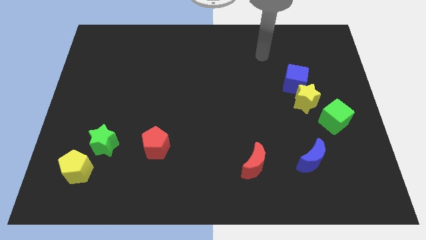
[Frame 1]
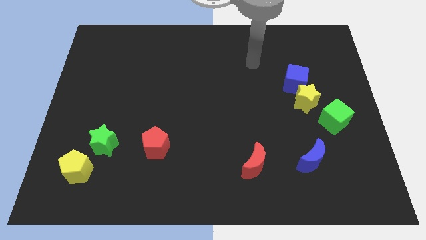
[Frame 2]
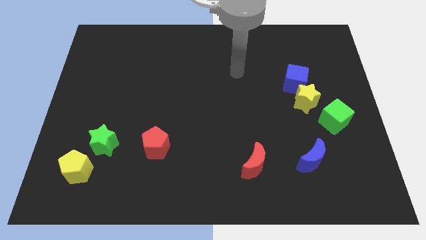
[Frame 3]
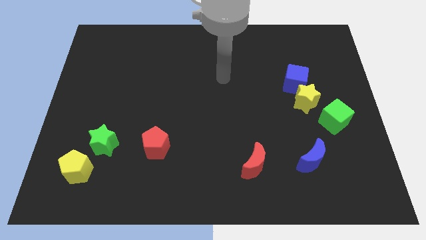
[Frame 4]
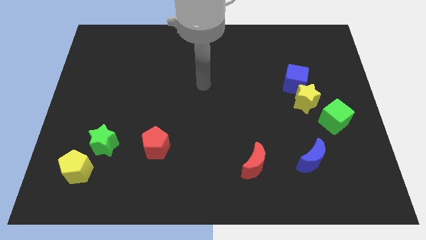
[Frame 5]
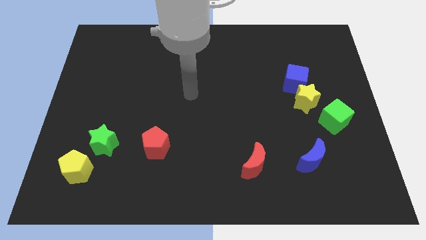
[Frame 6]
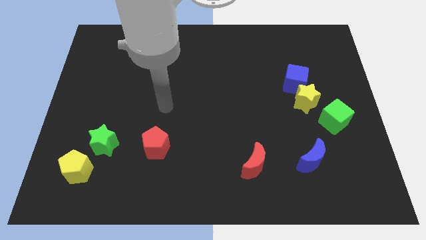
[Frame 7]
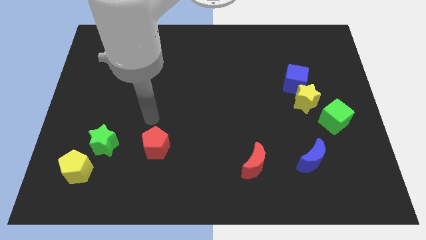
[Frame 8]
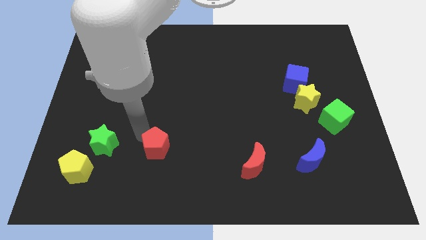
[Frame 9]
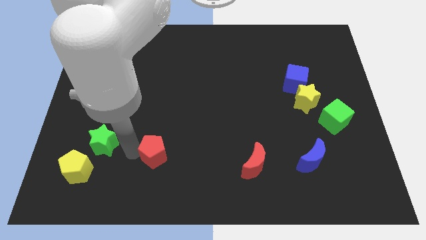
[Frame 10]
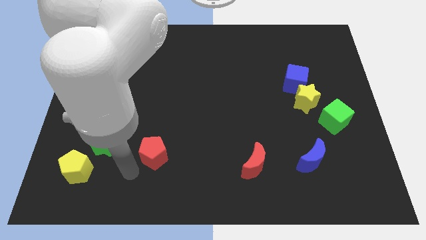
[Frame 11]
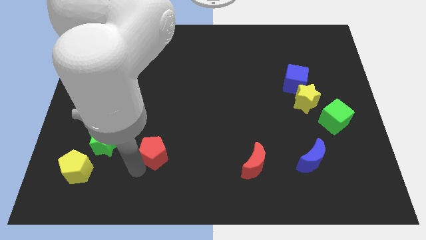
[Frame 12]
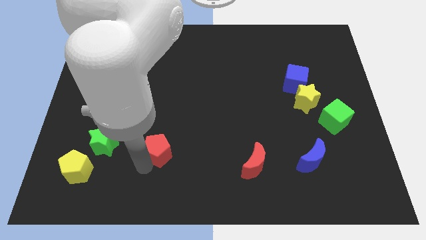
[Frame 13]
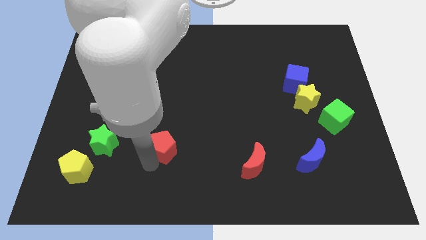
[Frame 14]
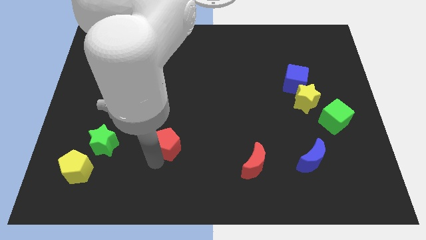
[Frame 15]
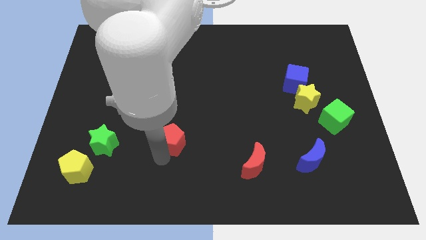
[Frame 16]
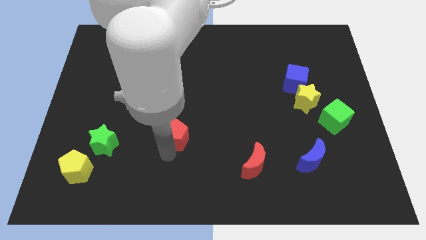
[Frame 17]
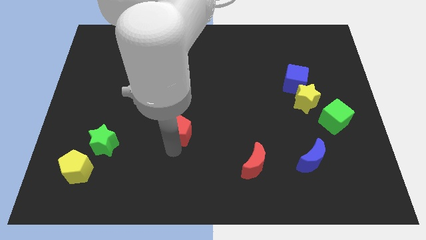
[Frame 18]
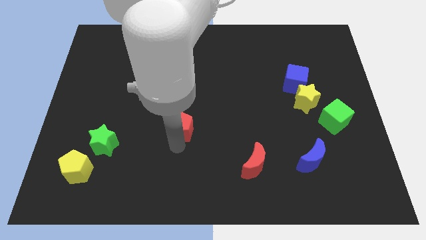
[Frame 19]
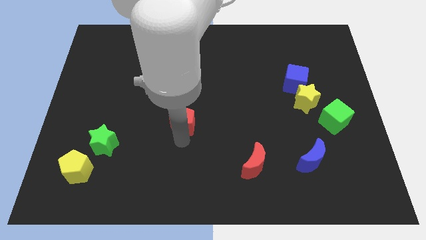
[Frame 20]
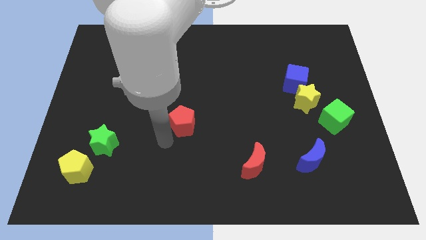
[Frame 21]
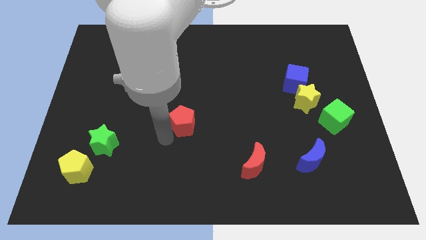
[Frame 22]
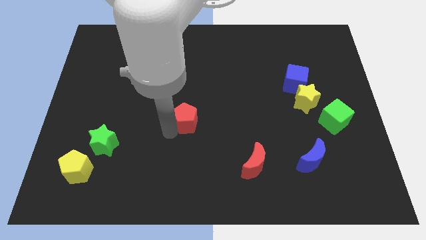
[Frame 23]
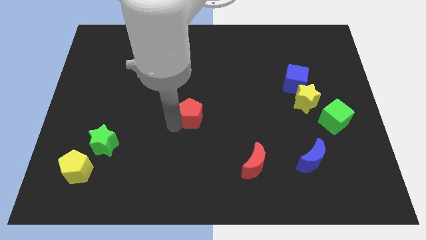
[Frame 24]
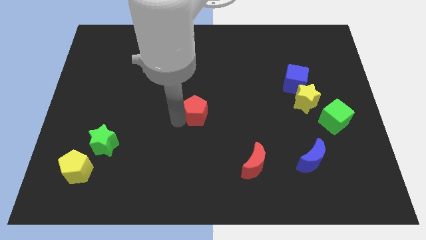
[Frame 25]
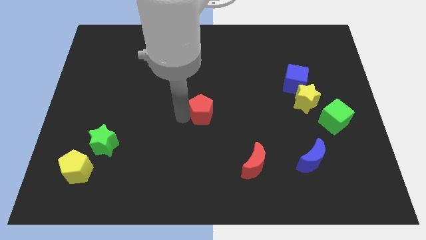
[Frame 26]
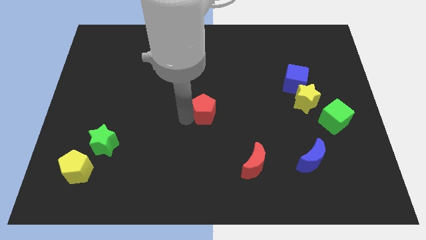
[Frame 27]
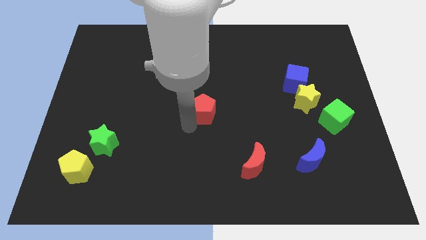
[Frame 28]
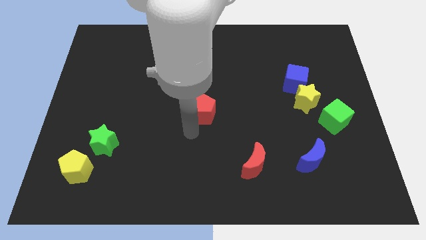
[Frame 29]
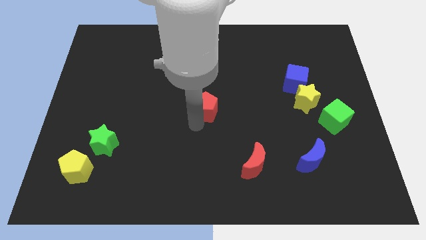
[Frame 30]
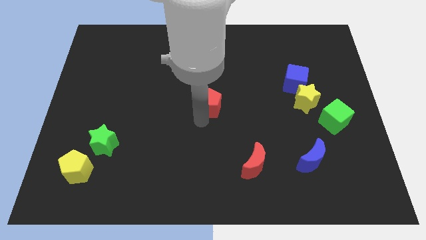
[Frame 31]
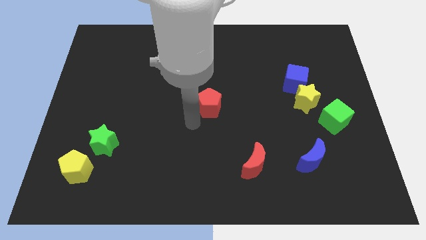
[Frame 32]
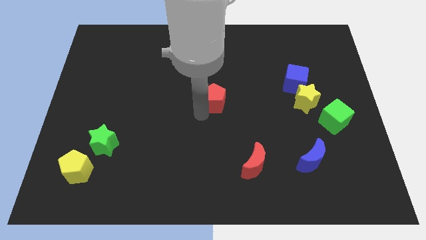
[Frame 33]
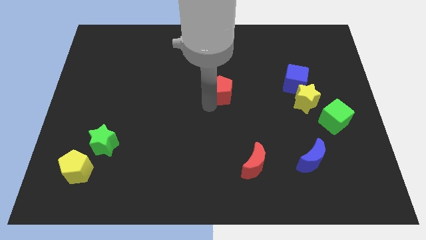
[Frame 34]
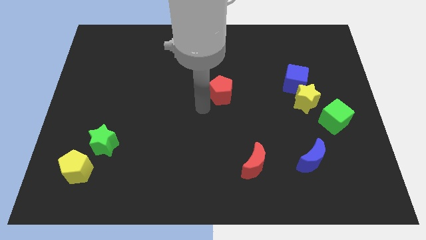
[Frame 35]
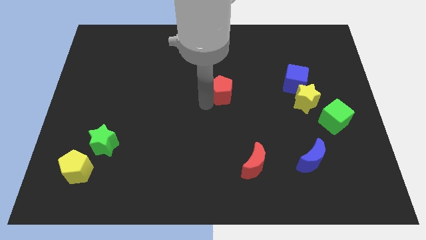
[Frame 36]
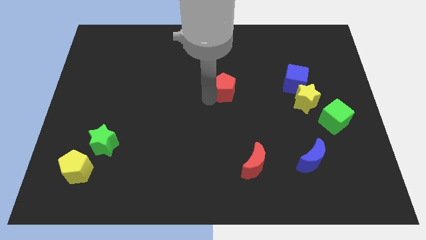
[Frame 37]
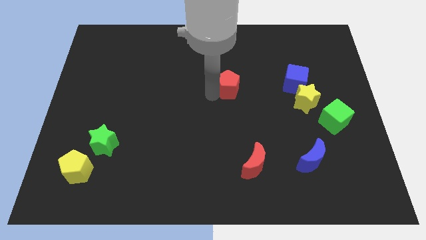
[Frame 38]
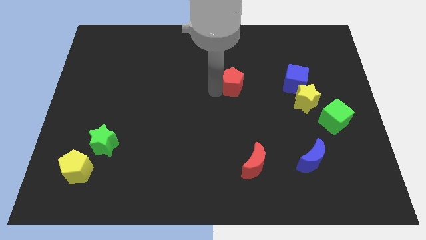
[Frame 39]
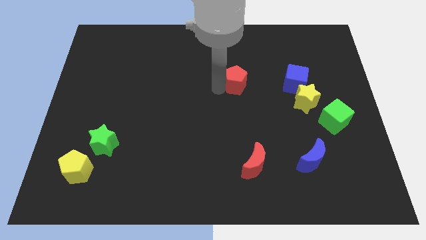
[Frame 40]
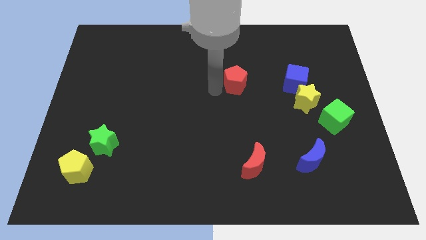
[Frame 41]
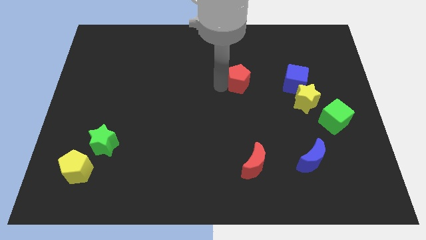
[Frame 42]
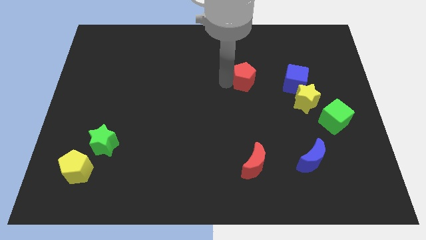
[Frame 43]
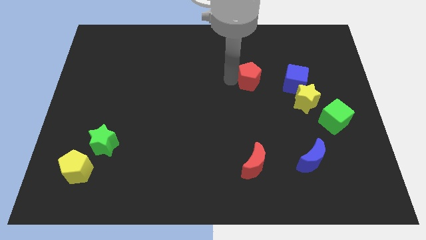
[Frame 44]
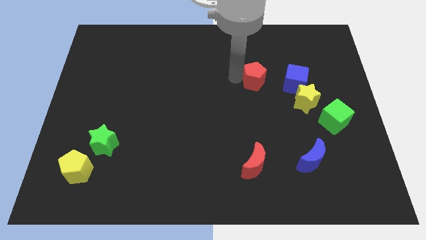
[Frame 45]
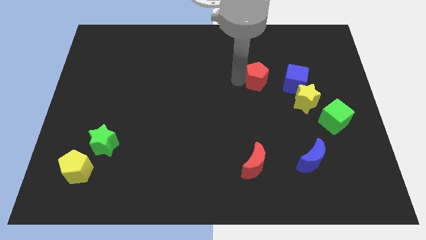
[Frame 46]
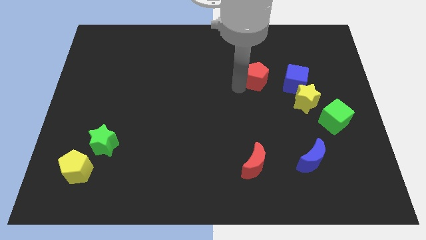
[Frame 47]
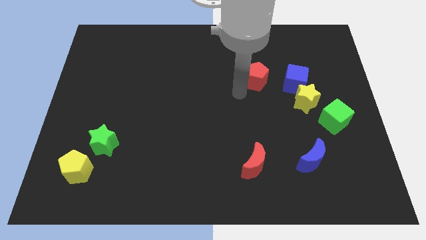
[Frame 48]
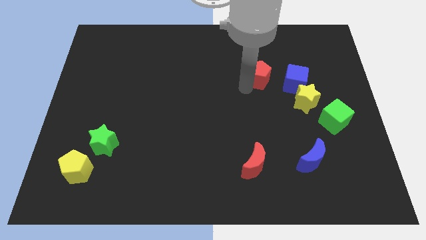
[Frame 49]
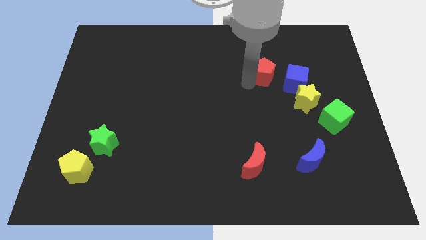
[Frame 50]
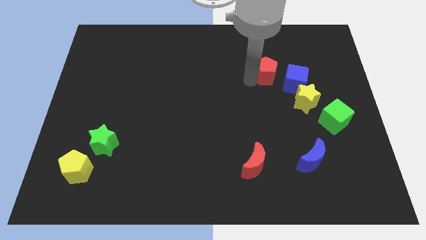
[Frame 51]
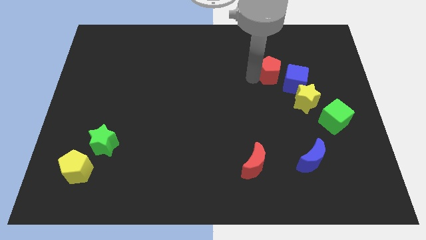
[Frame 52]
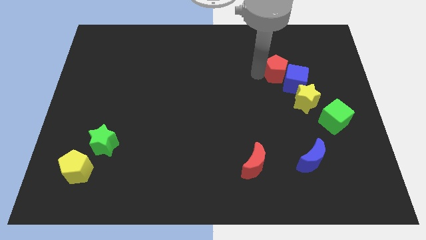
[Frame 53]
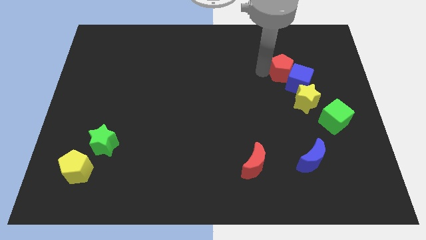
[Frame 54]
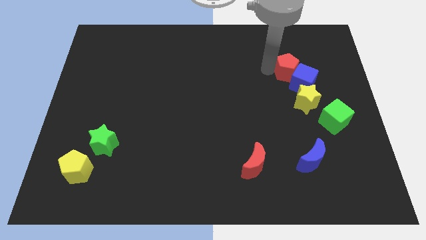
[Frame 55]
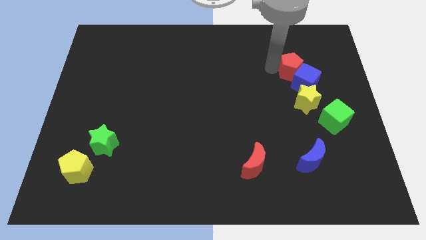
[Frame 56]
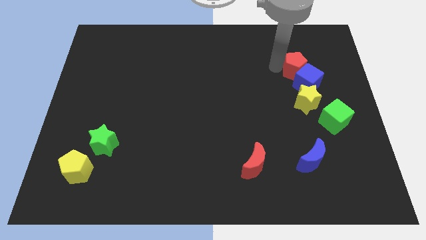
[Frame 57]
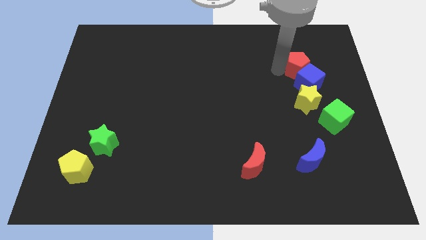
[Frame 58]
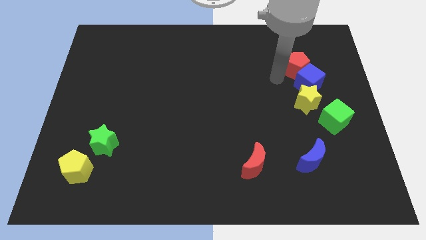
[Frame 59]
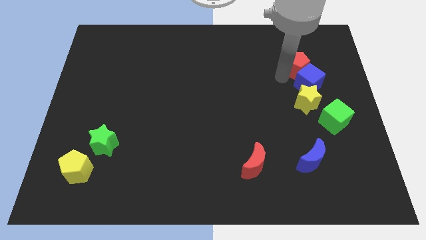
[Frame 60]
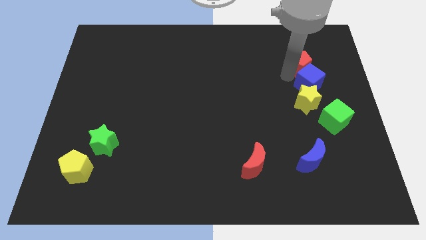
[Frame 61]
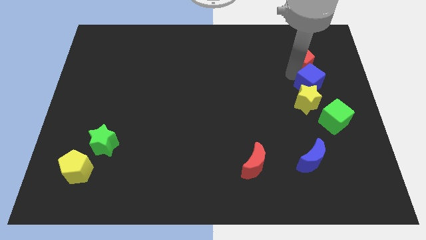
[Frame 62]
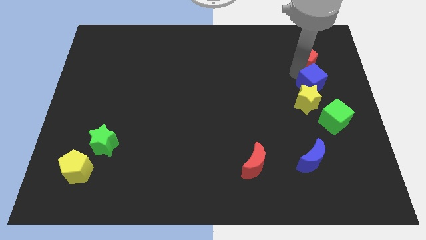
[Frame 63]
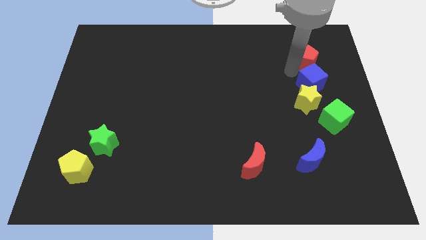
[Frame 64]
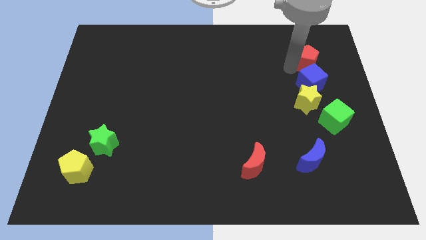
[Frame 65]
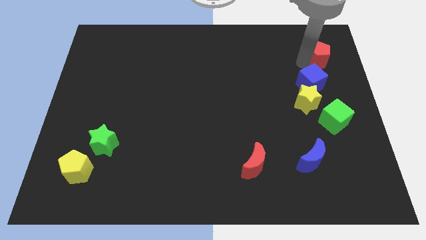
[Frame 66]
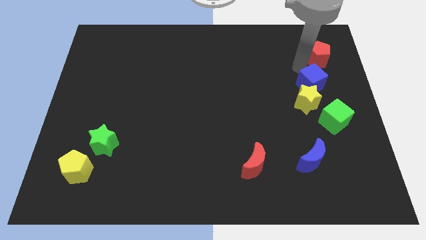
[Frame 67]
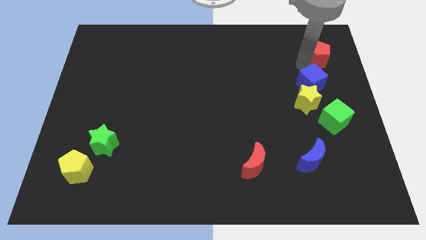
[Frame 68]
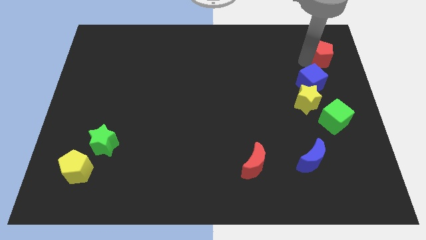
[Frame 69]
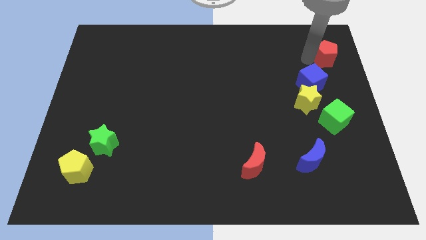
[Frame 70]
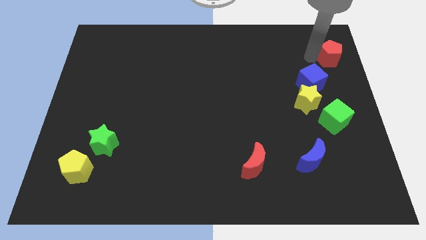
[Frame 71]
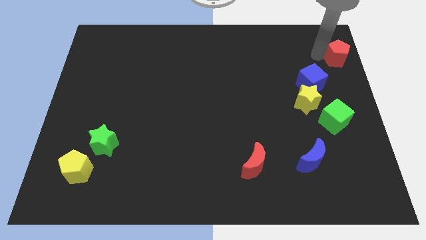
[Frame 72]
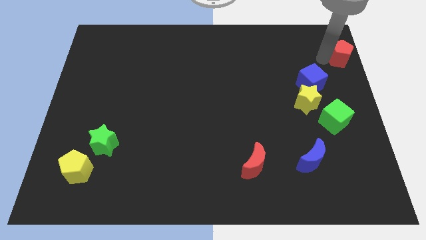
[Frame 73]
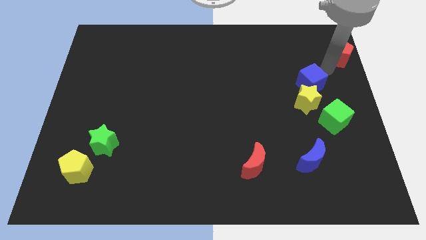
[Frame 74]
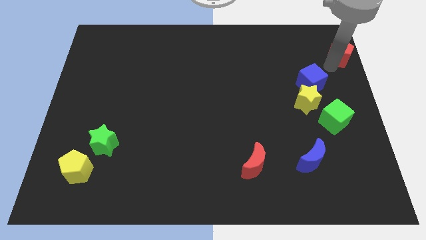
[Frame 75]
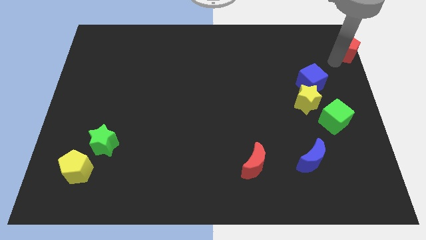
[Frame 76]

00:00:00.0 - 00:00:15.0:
push the red pentagon to the top right
